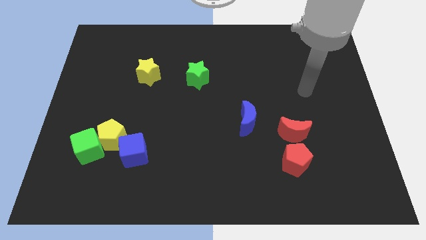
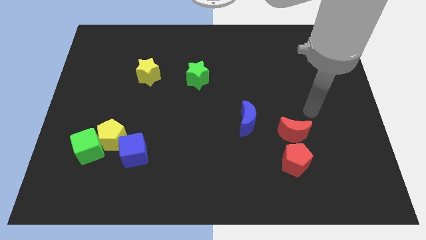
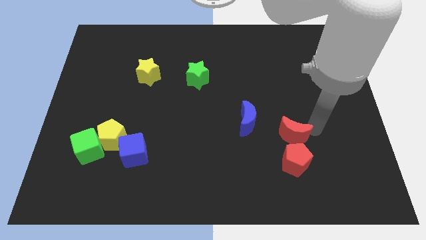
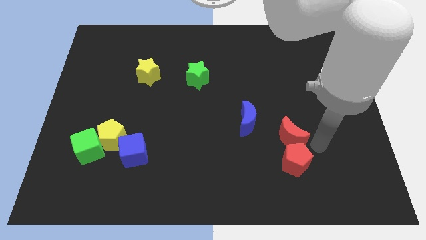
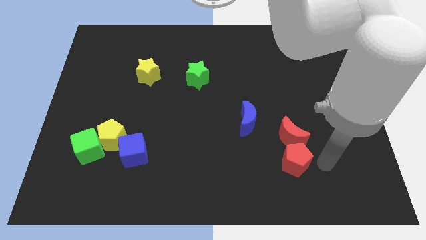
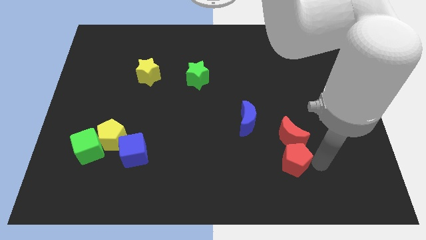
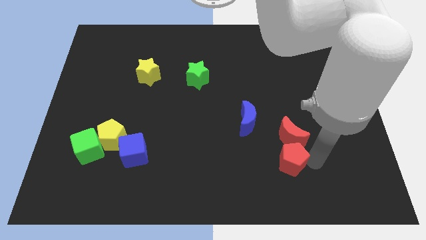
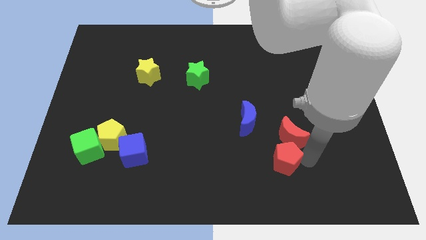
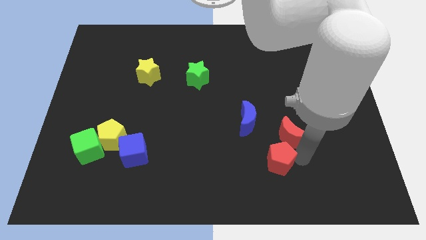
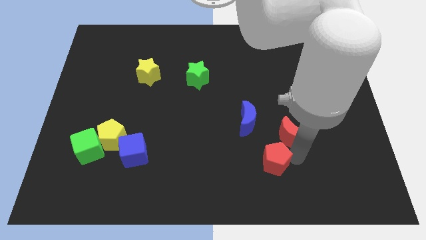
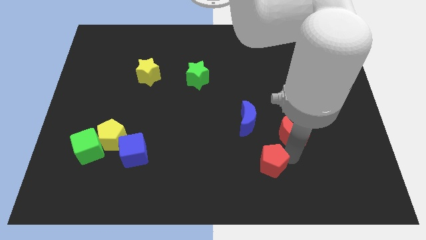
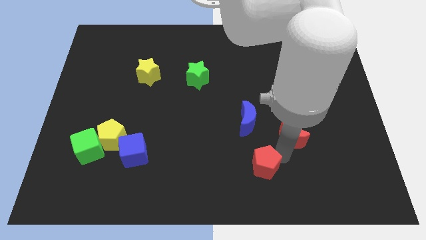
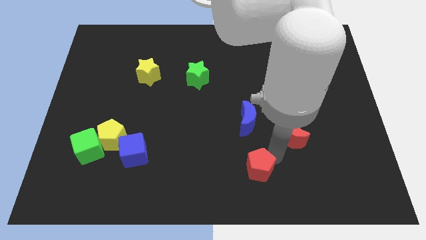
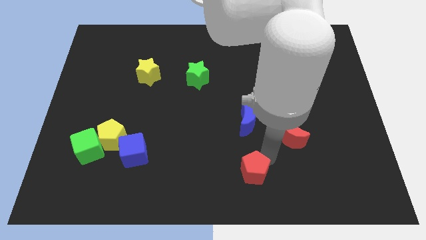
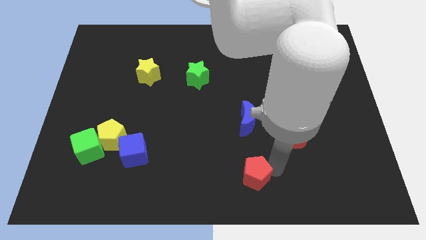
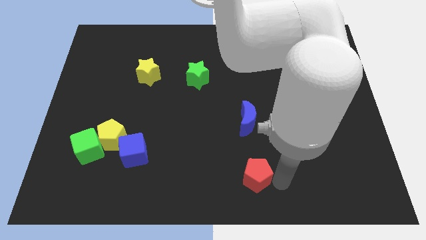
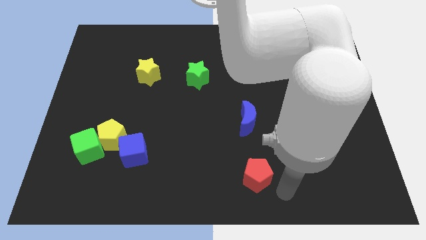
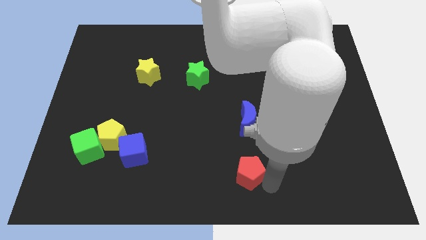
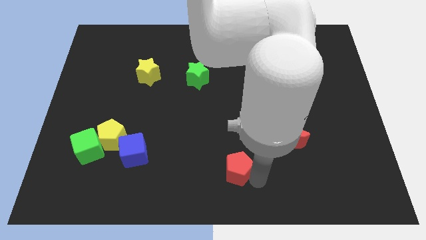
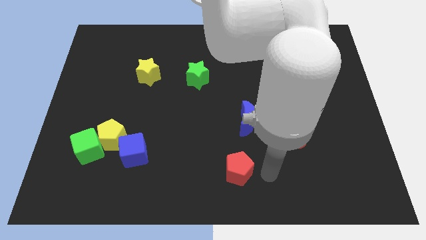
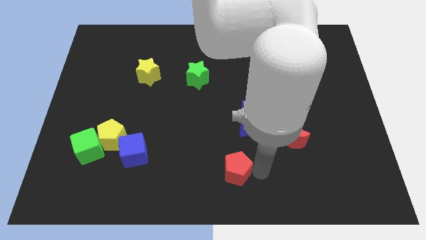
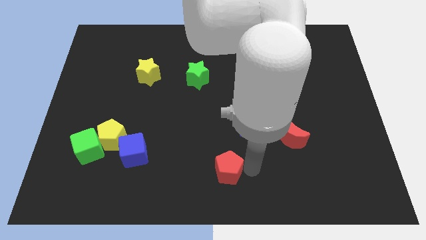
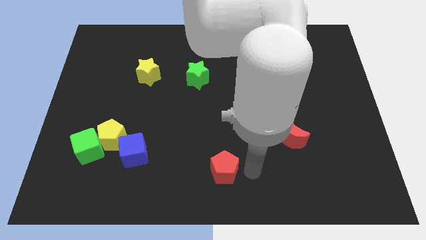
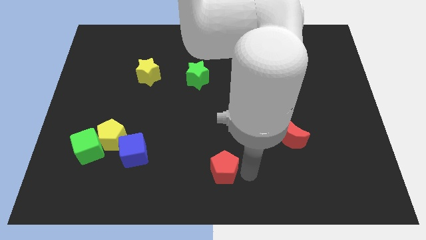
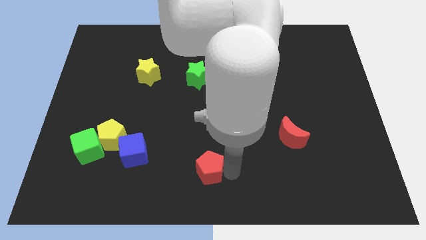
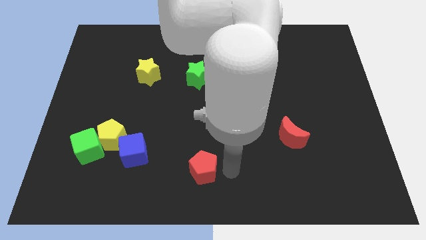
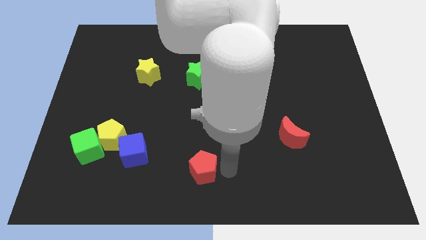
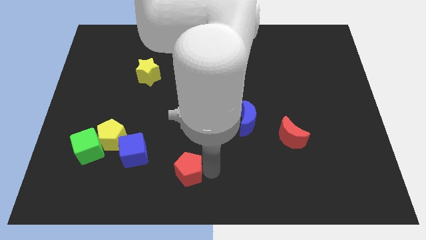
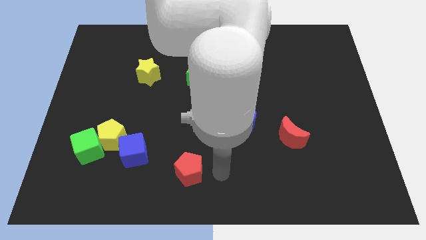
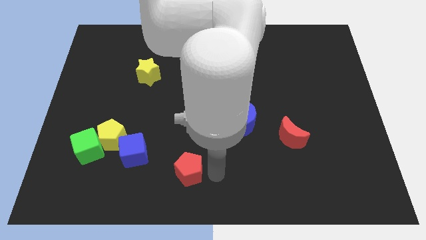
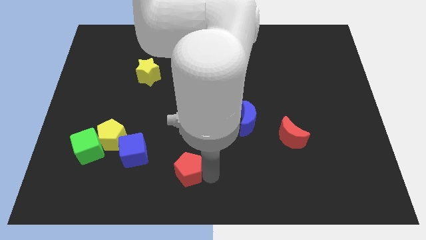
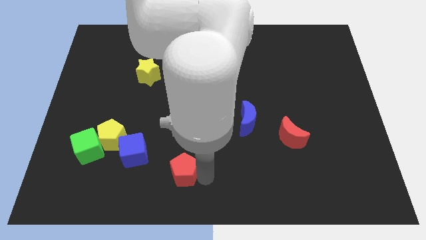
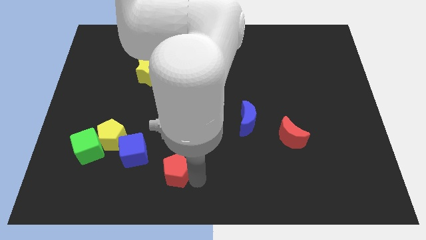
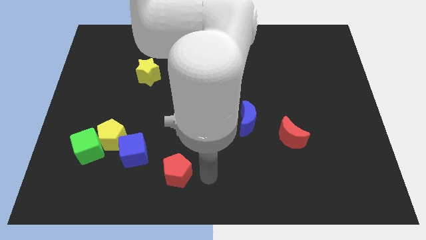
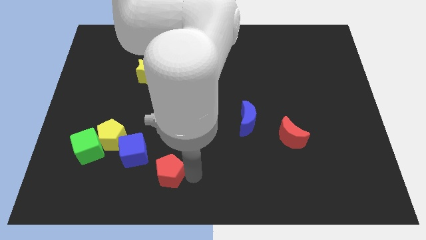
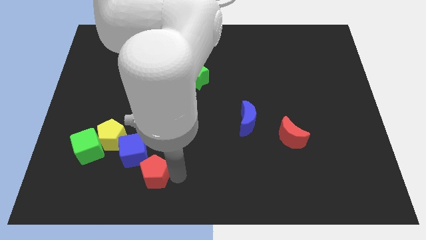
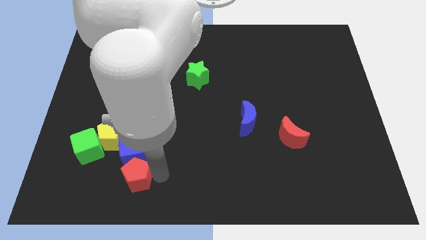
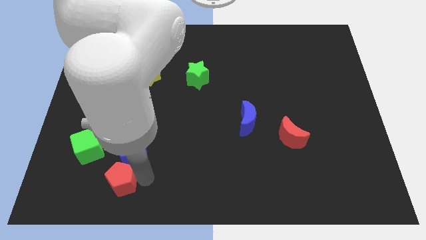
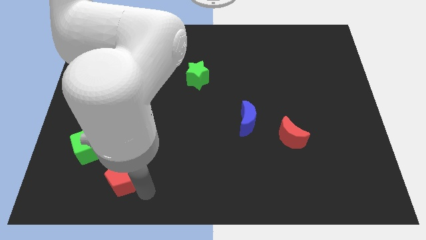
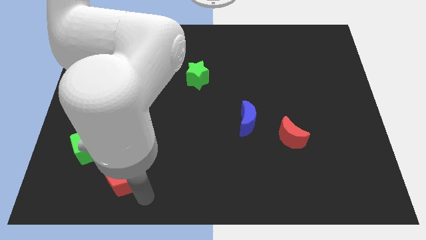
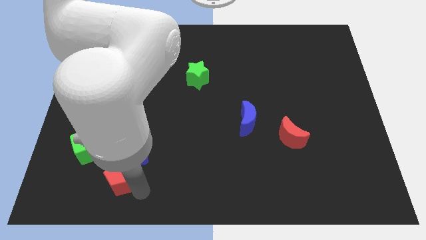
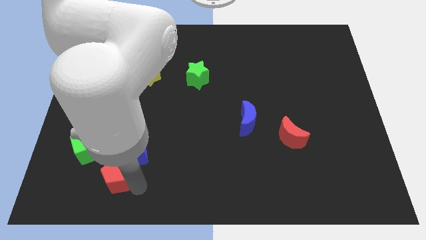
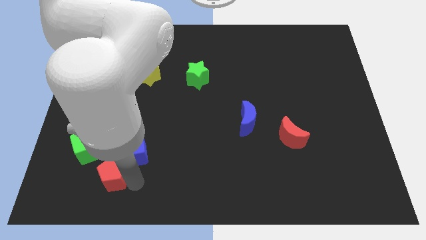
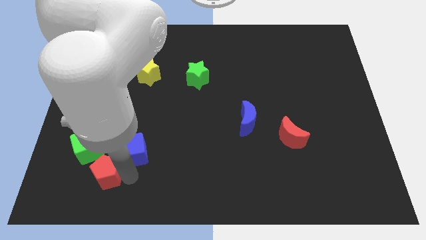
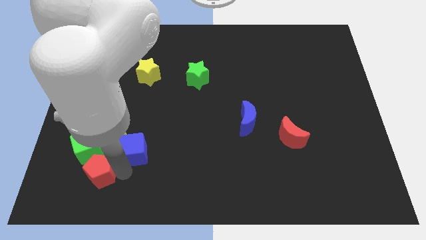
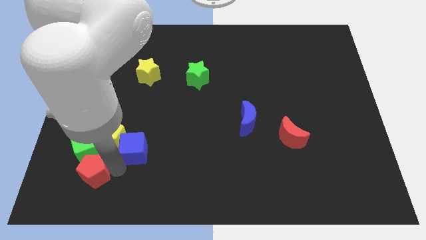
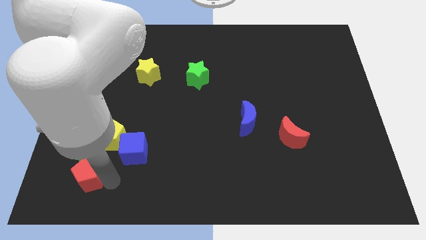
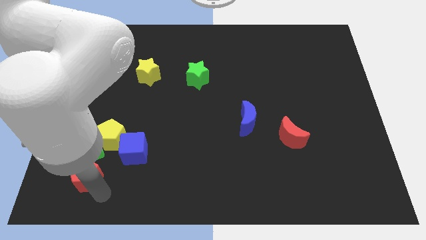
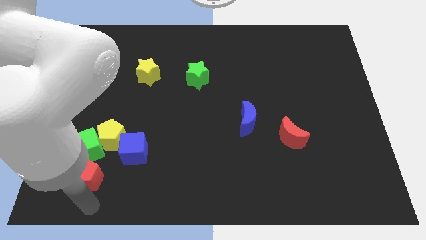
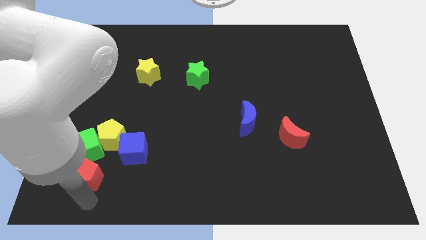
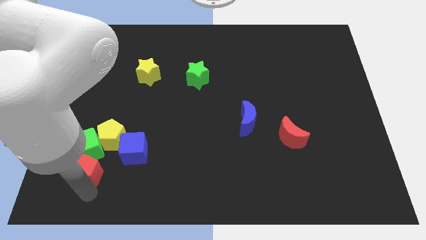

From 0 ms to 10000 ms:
slide the red pentagon close to the green cube

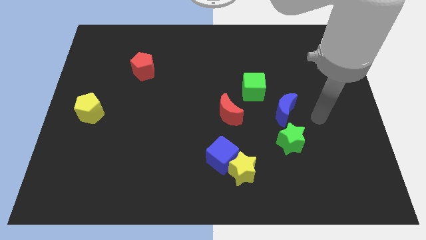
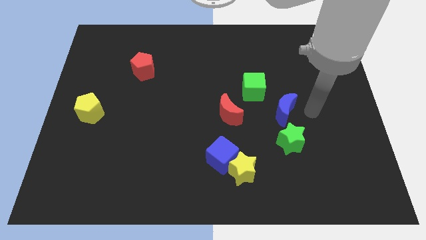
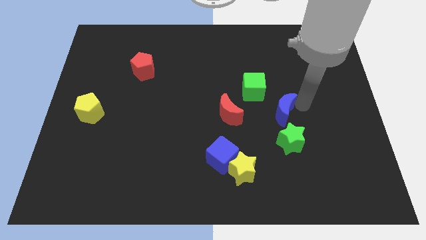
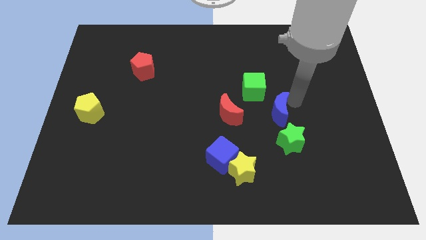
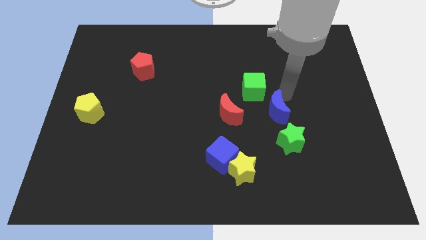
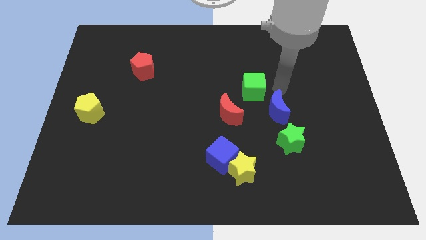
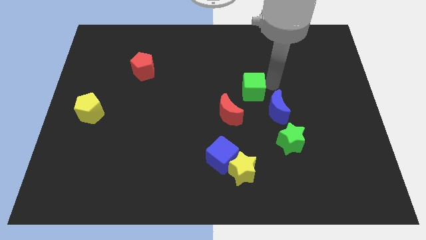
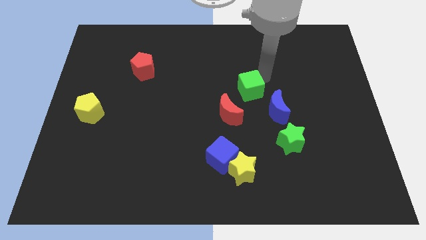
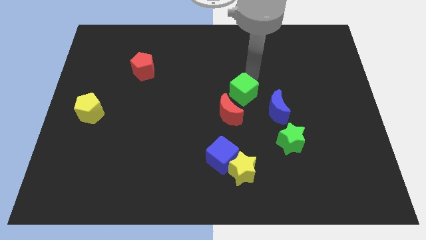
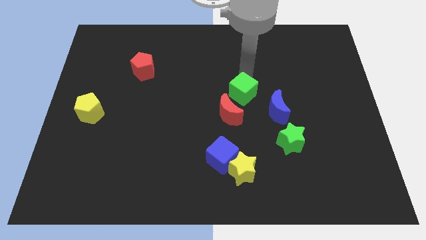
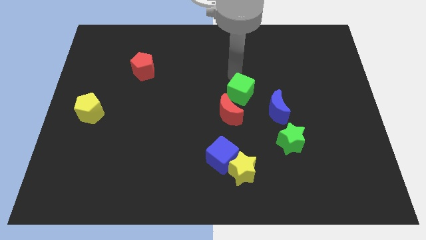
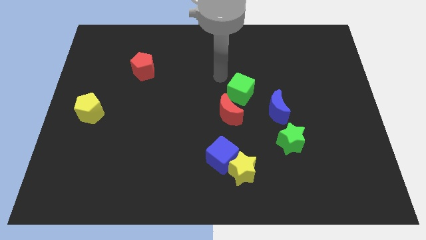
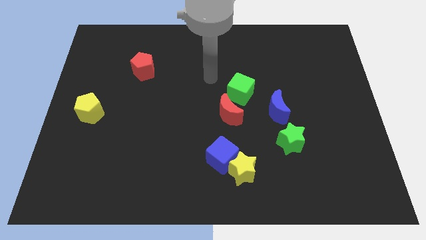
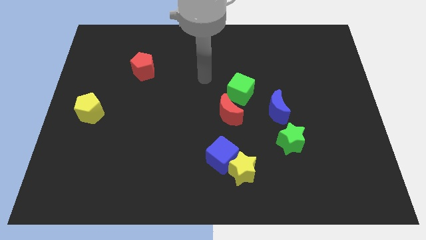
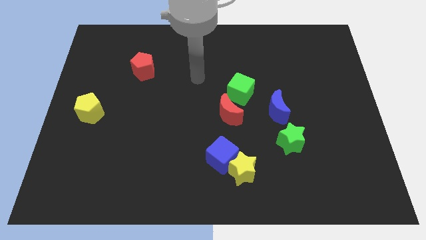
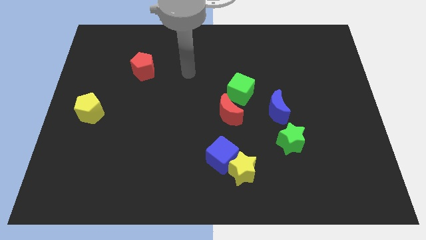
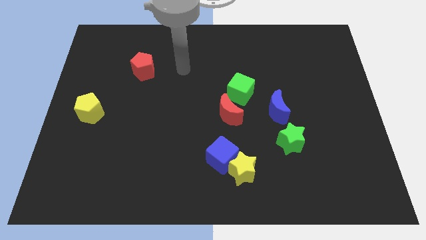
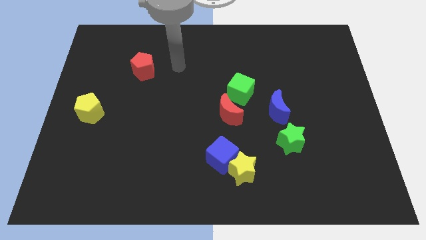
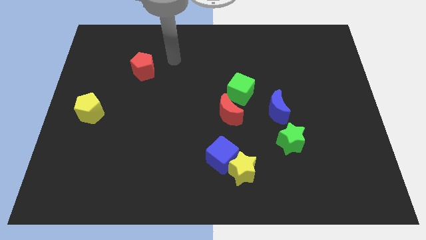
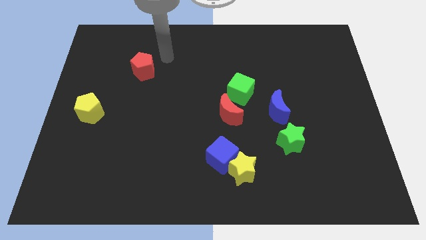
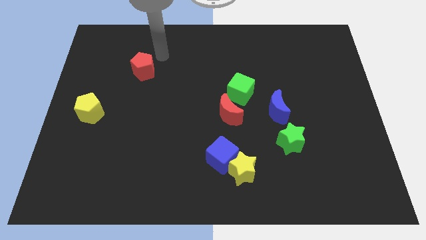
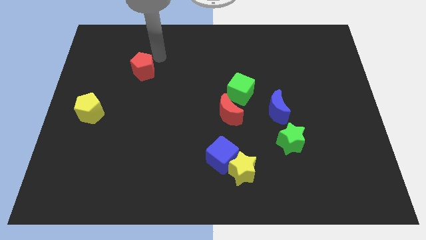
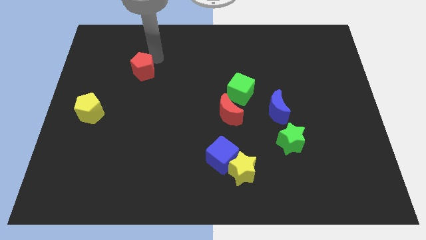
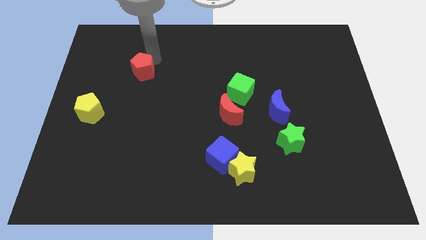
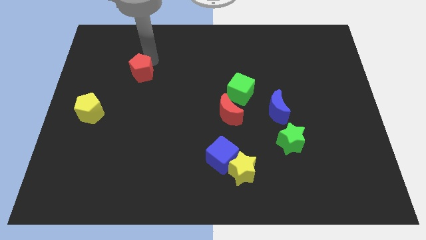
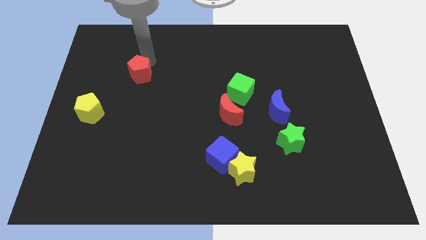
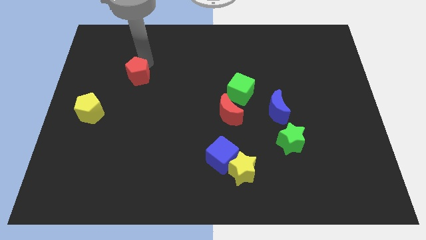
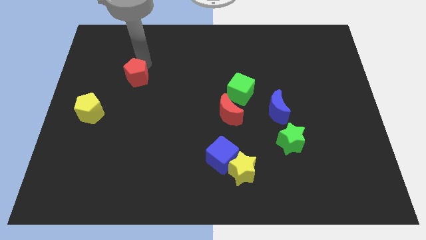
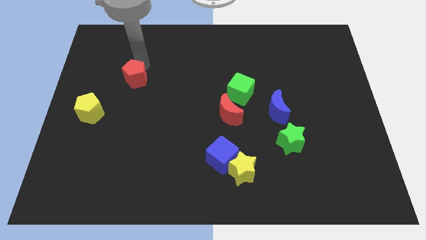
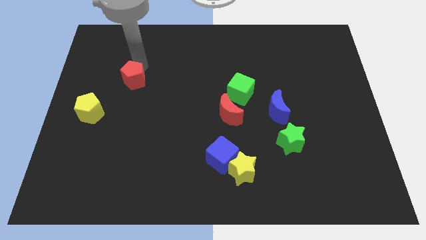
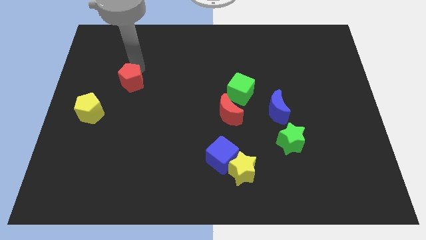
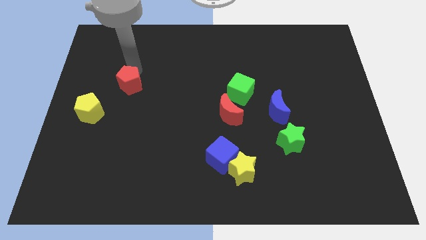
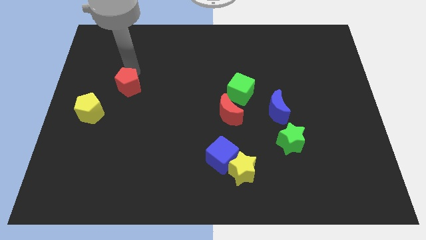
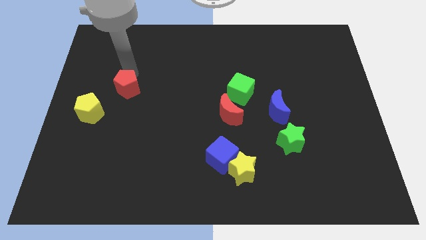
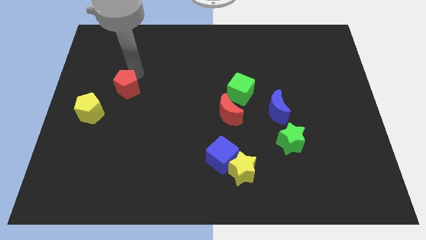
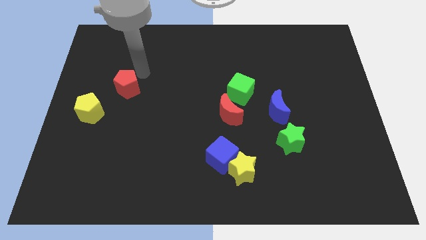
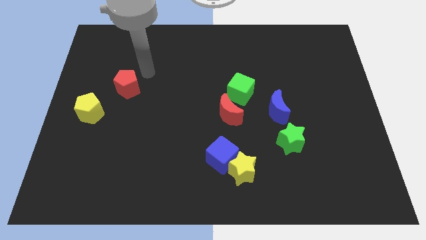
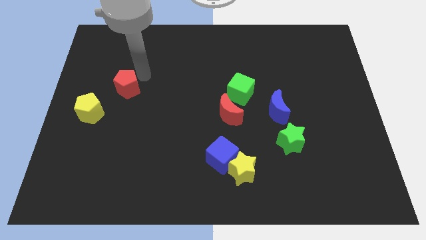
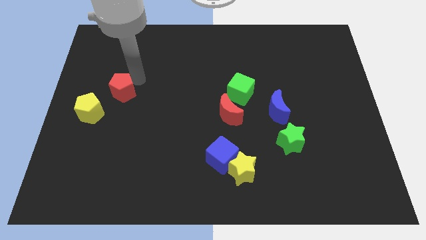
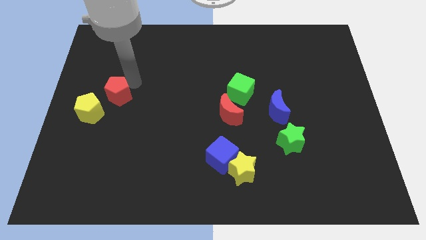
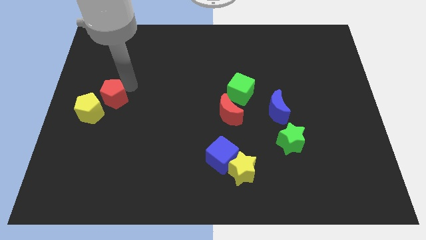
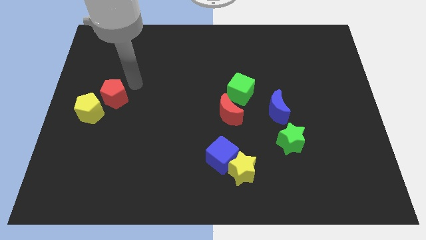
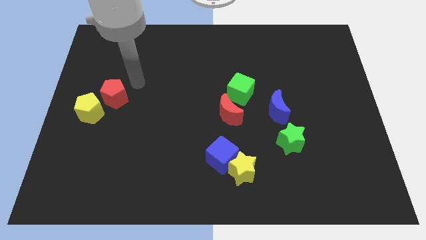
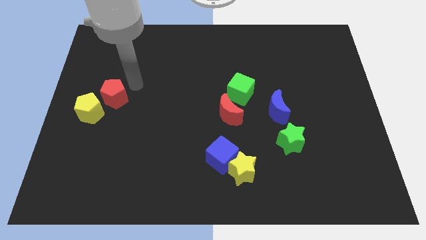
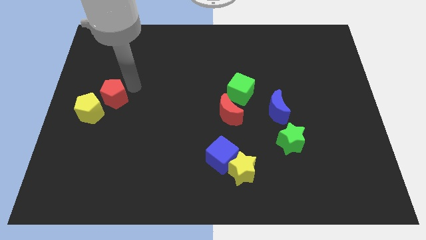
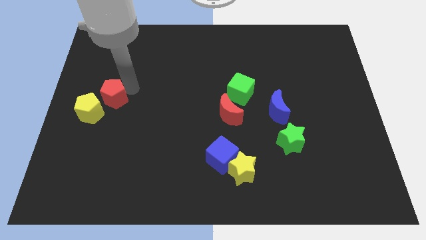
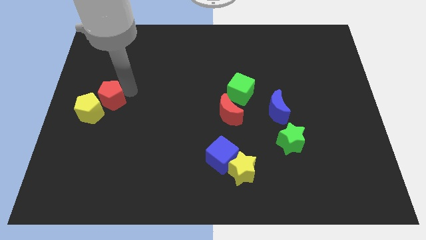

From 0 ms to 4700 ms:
slide the red pentagon to the yellow pentagon
